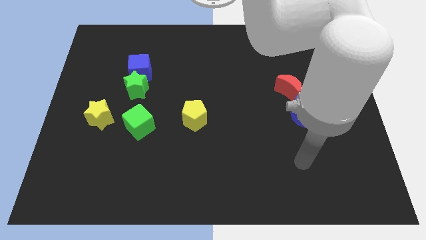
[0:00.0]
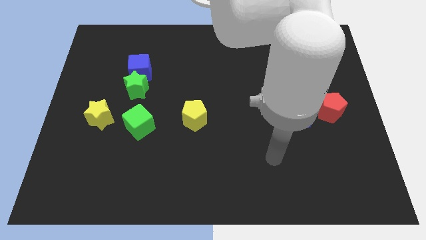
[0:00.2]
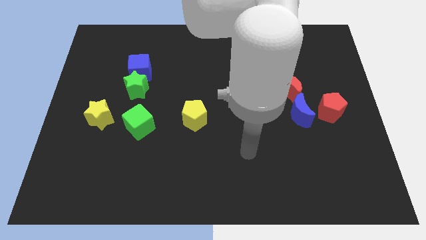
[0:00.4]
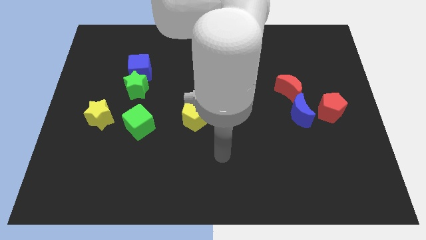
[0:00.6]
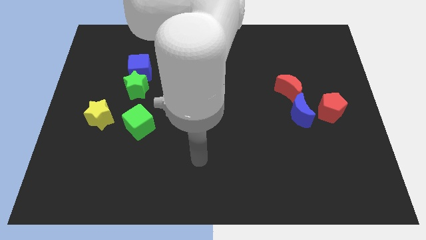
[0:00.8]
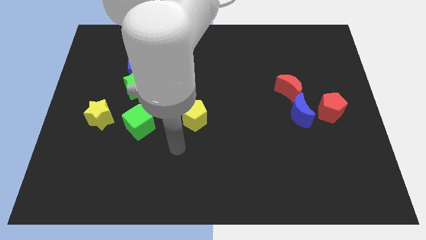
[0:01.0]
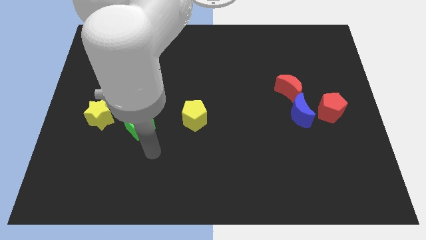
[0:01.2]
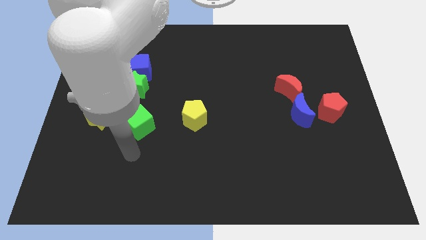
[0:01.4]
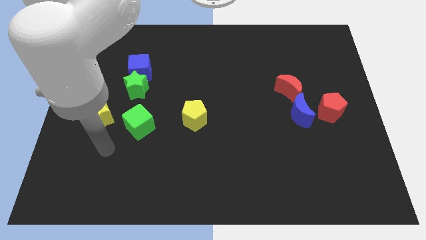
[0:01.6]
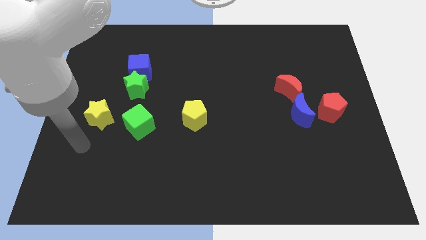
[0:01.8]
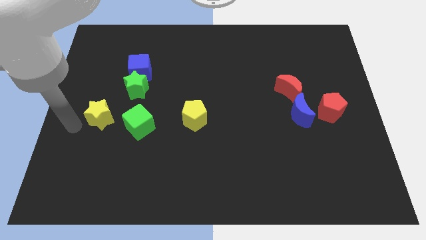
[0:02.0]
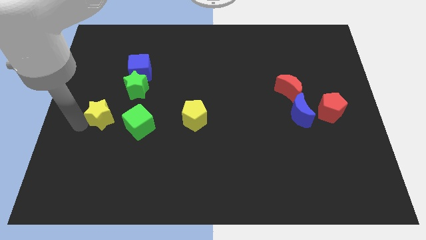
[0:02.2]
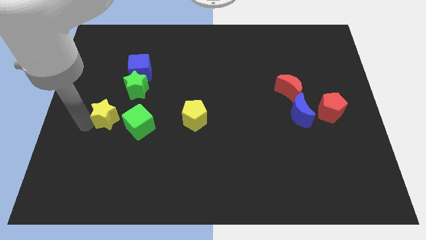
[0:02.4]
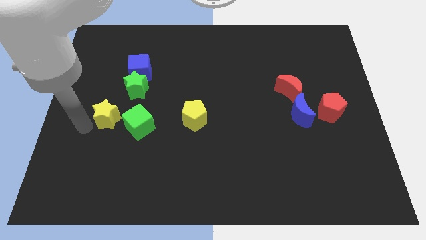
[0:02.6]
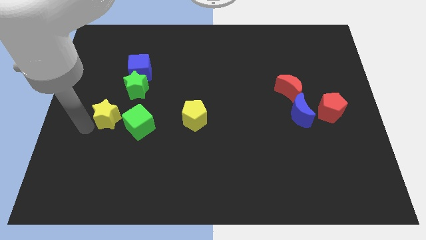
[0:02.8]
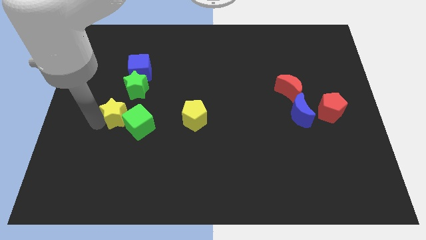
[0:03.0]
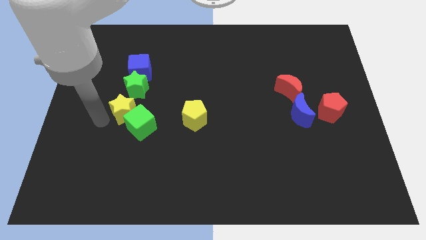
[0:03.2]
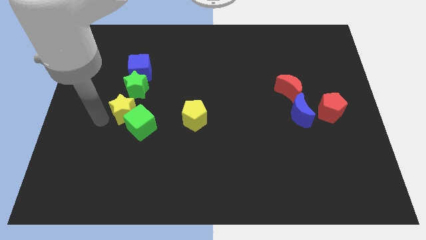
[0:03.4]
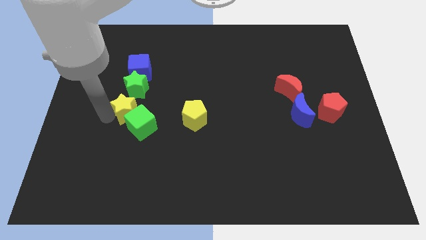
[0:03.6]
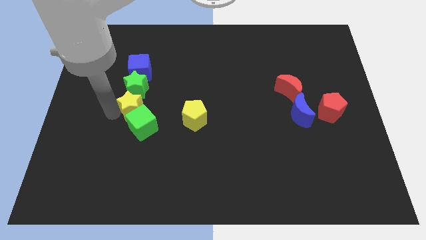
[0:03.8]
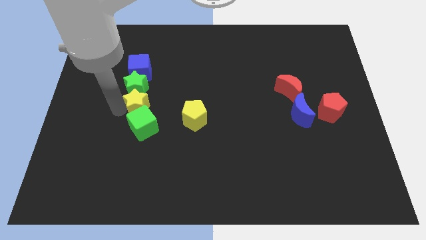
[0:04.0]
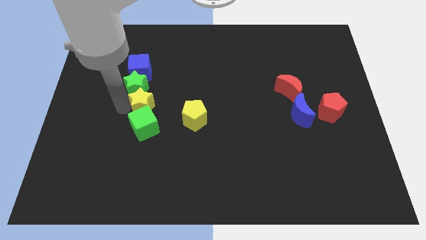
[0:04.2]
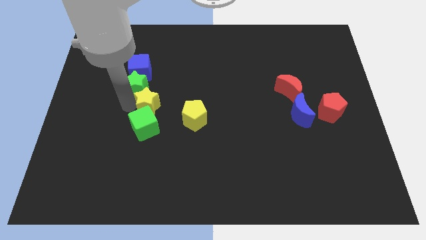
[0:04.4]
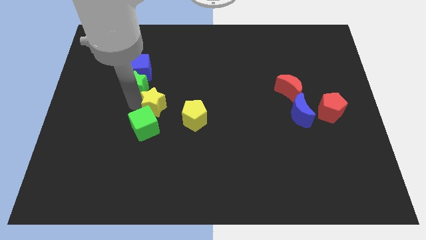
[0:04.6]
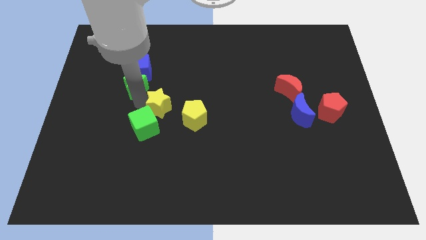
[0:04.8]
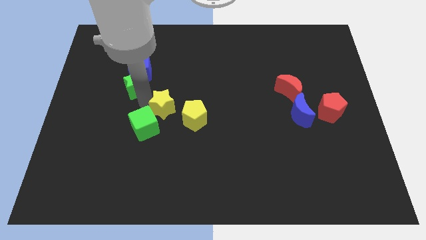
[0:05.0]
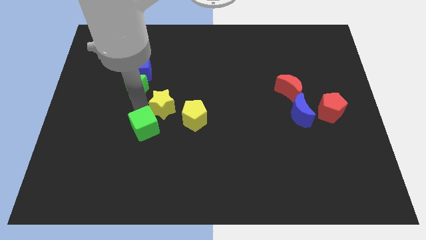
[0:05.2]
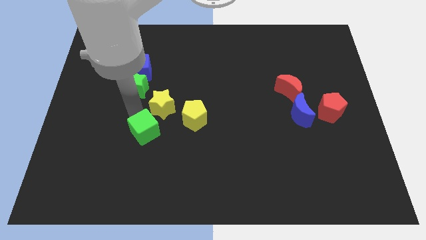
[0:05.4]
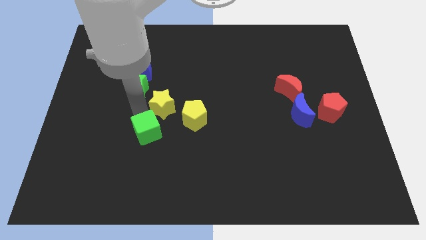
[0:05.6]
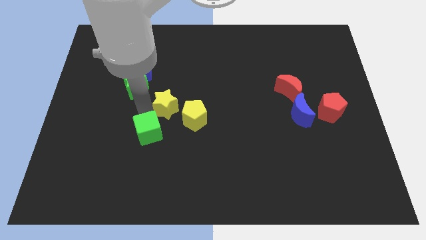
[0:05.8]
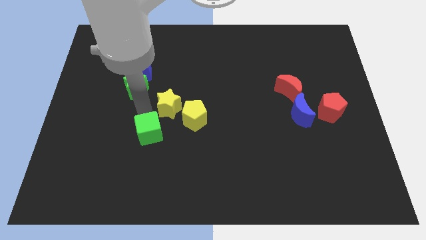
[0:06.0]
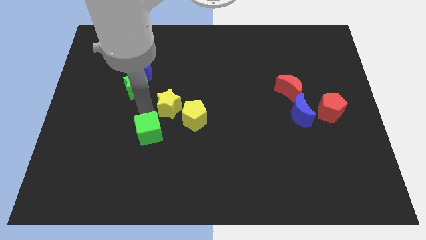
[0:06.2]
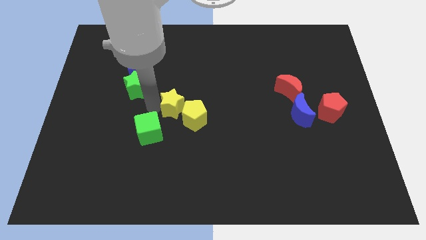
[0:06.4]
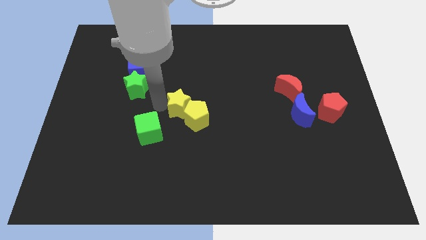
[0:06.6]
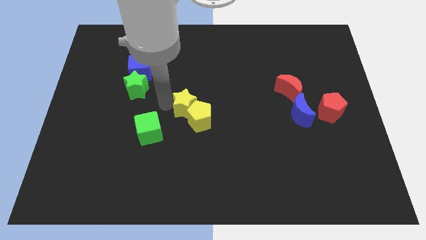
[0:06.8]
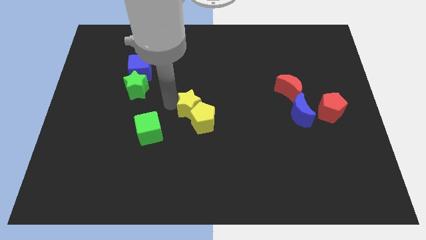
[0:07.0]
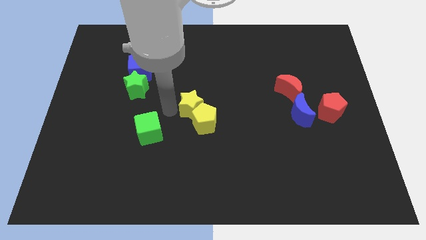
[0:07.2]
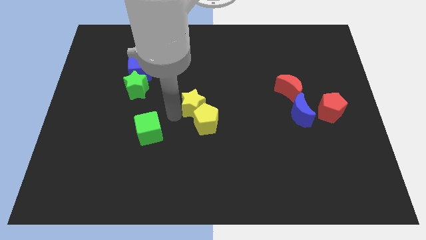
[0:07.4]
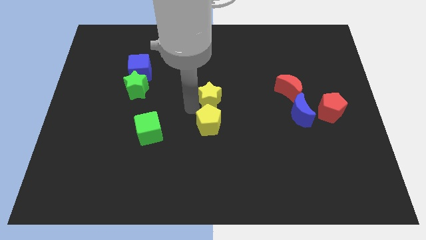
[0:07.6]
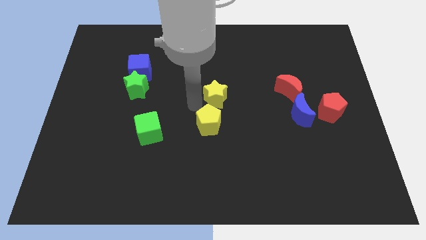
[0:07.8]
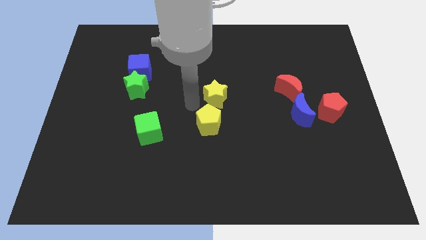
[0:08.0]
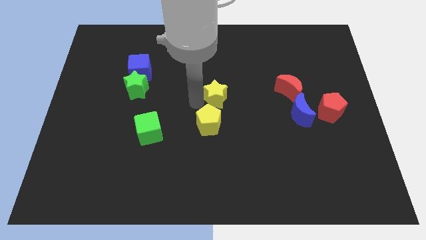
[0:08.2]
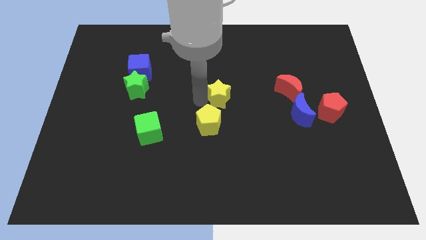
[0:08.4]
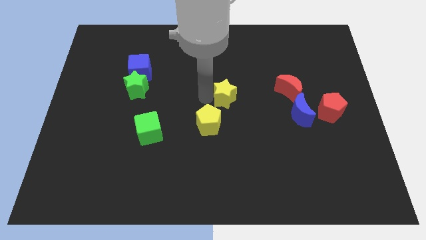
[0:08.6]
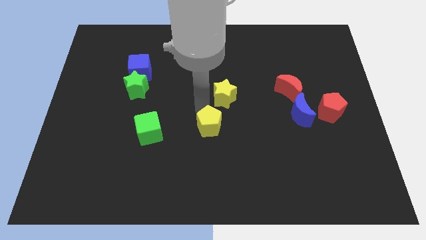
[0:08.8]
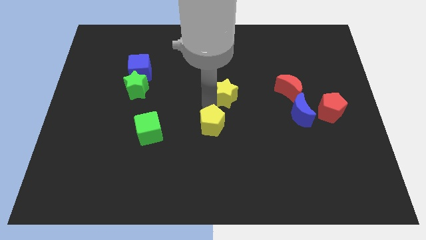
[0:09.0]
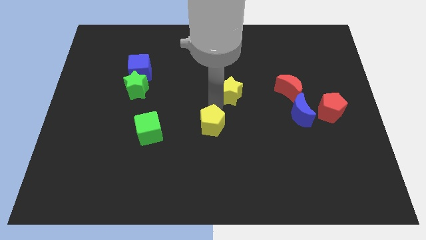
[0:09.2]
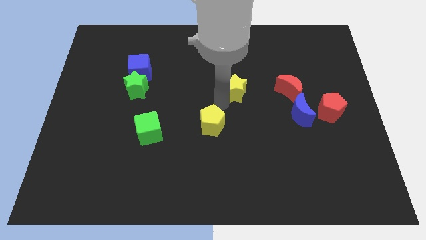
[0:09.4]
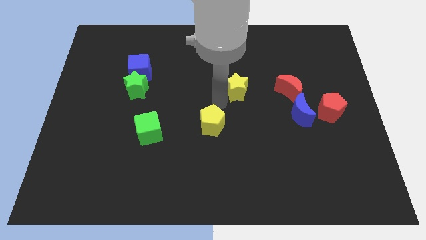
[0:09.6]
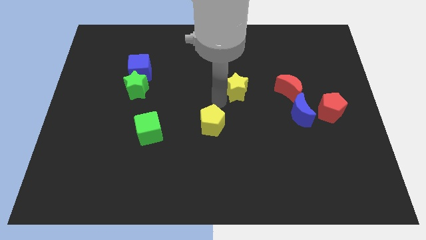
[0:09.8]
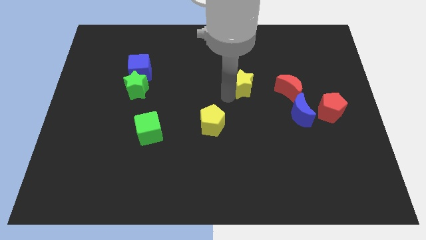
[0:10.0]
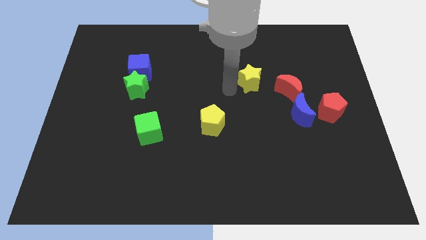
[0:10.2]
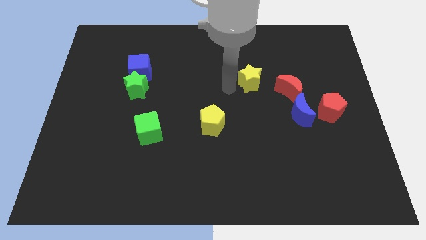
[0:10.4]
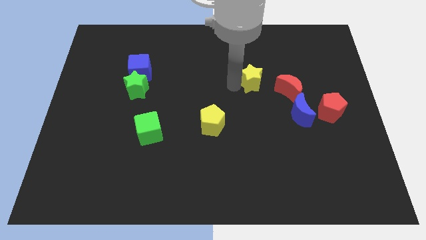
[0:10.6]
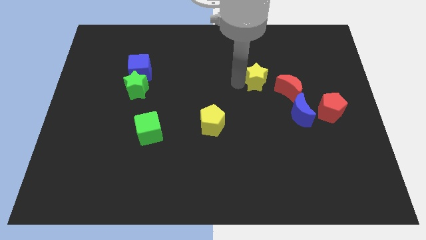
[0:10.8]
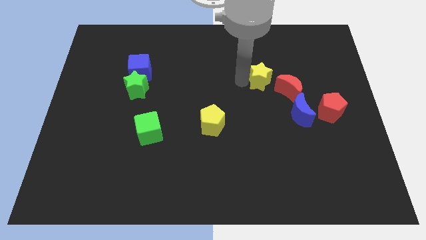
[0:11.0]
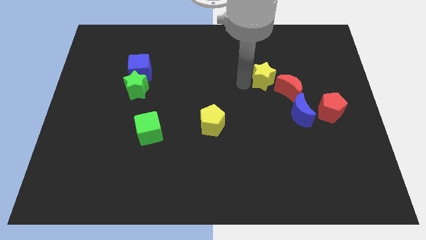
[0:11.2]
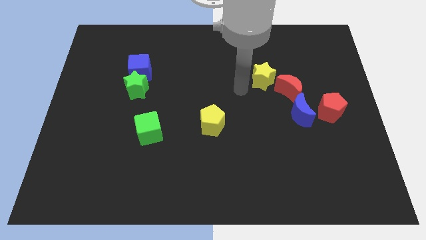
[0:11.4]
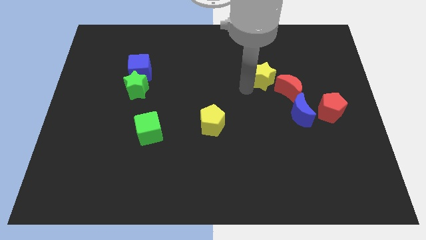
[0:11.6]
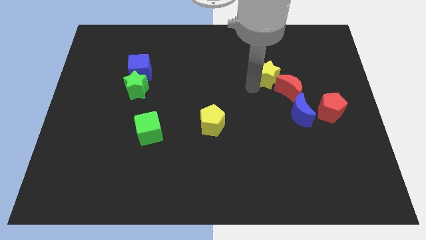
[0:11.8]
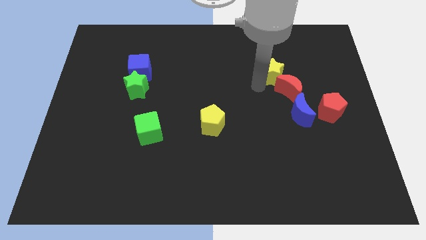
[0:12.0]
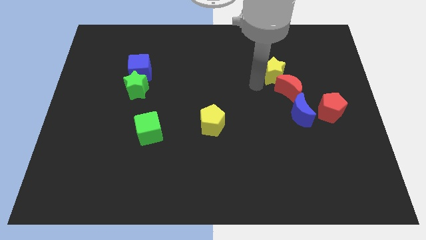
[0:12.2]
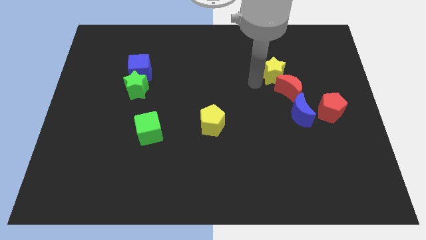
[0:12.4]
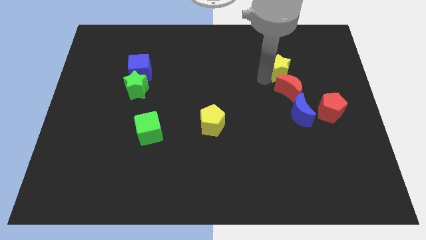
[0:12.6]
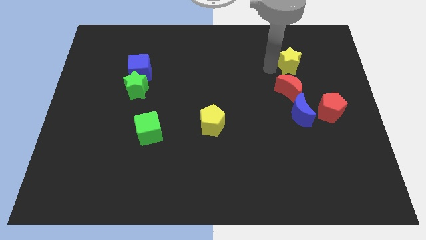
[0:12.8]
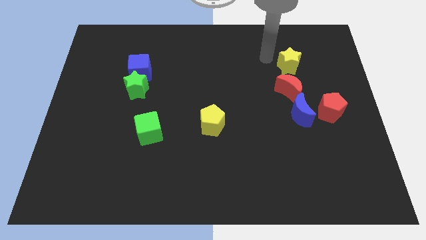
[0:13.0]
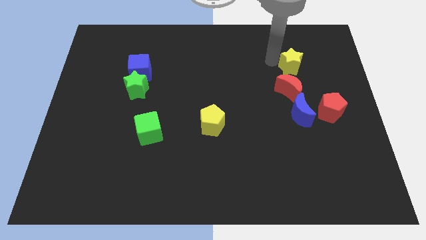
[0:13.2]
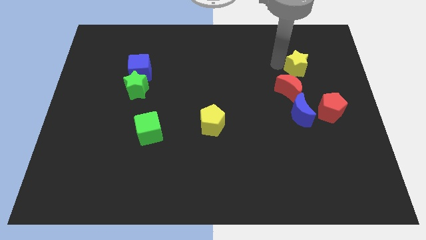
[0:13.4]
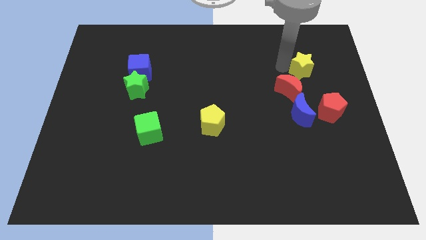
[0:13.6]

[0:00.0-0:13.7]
put the yellow star to the top side of the red pentagon
